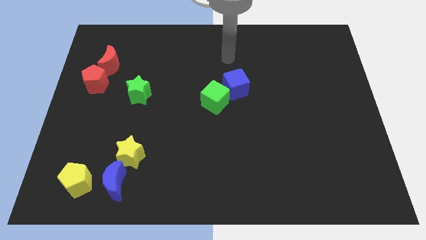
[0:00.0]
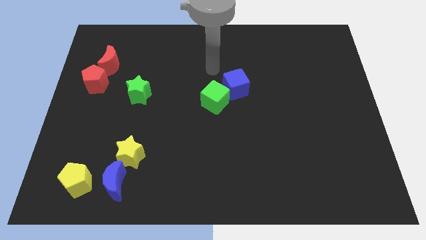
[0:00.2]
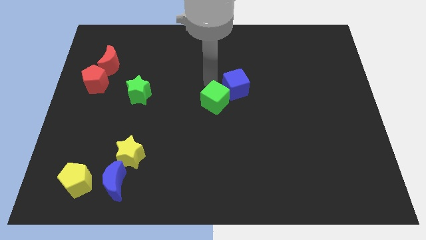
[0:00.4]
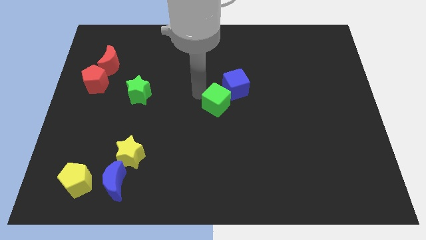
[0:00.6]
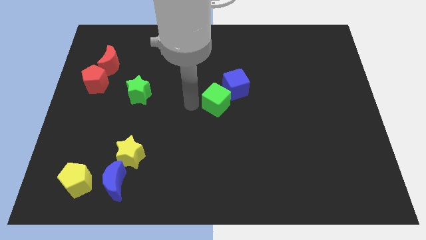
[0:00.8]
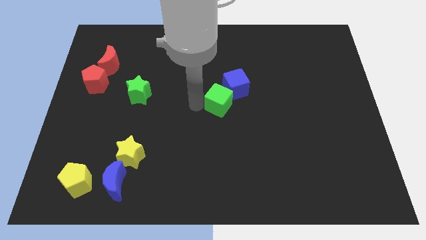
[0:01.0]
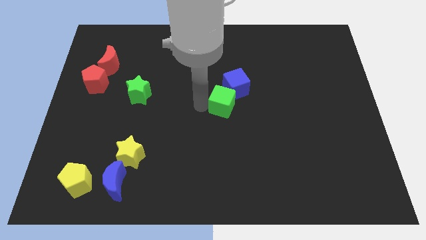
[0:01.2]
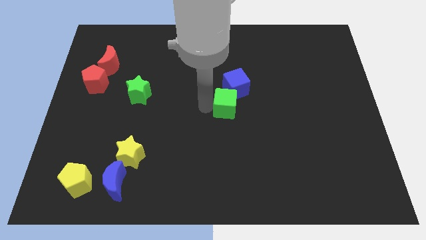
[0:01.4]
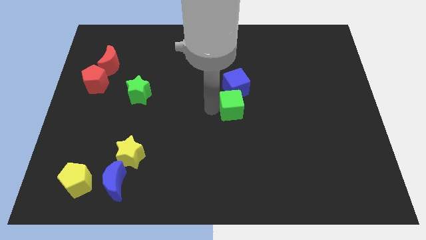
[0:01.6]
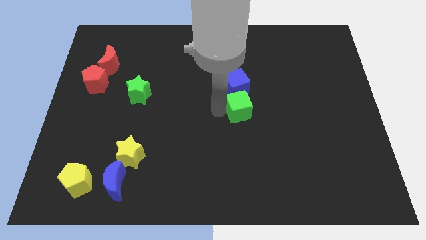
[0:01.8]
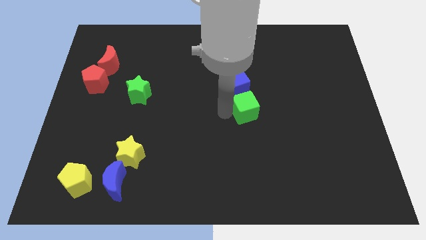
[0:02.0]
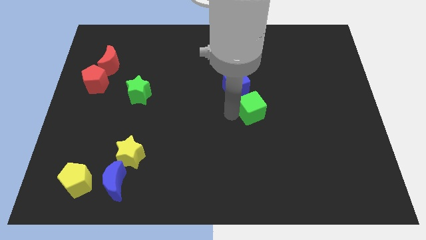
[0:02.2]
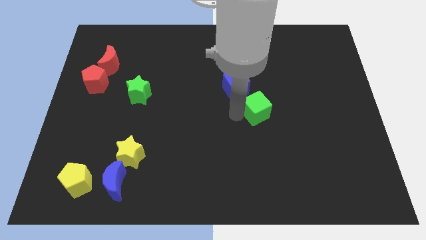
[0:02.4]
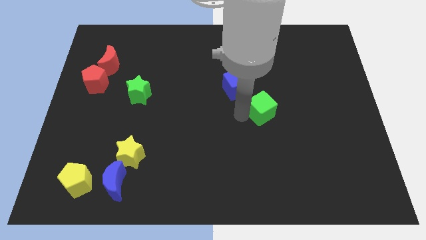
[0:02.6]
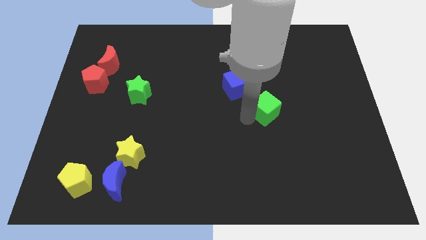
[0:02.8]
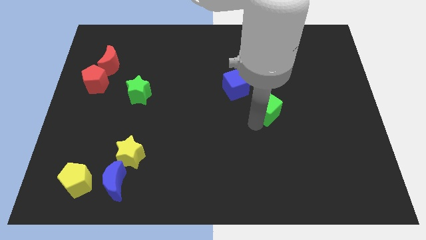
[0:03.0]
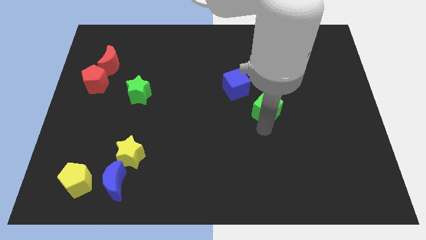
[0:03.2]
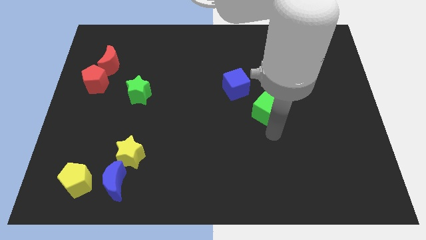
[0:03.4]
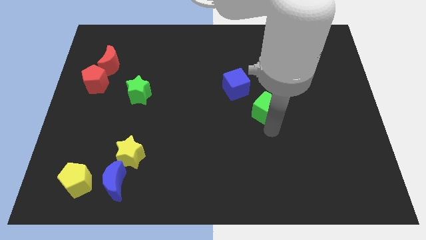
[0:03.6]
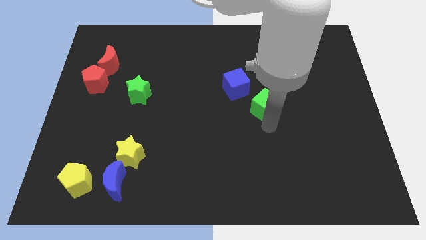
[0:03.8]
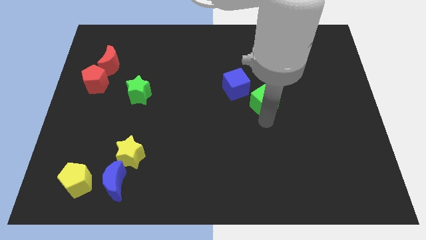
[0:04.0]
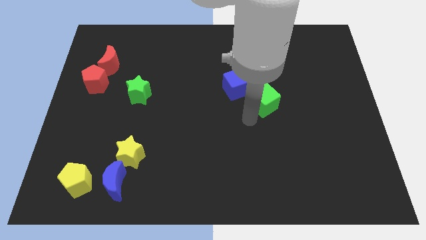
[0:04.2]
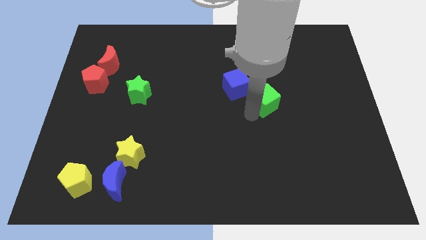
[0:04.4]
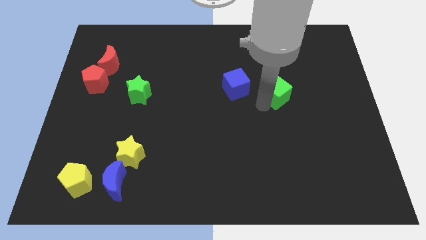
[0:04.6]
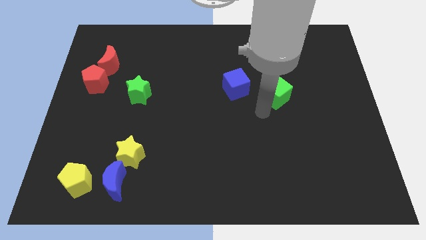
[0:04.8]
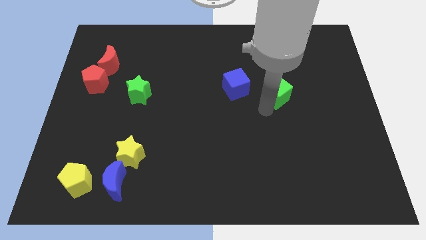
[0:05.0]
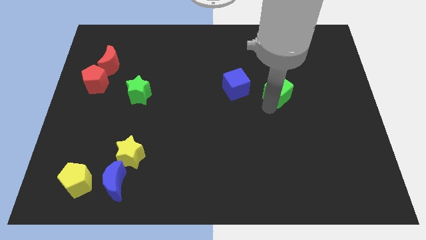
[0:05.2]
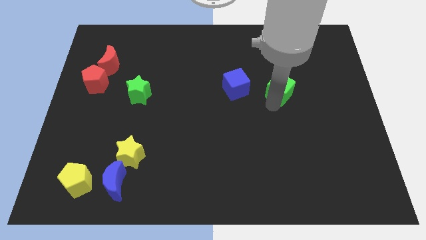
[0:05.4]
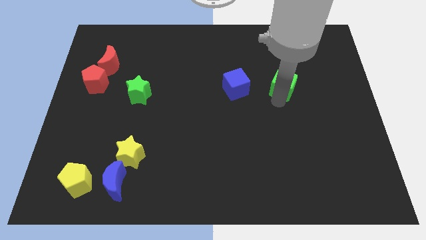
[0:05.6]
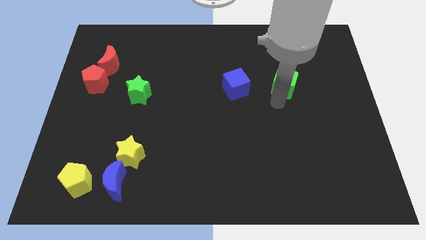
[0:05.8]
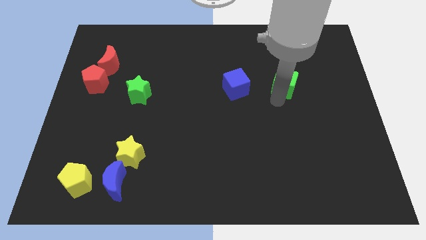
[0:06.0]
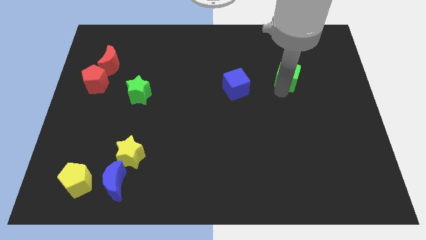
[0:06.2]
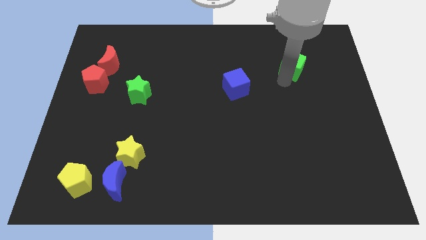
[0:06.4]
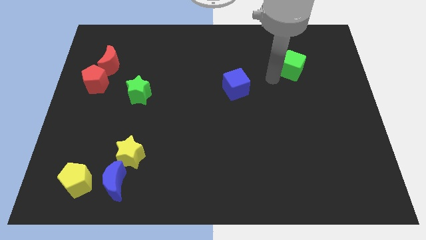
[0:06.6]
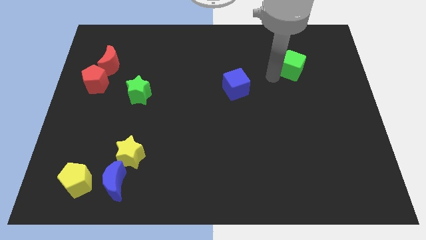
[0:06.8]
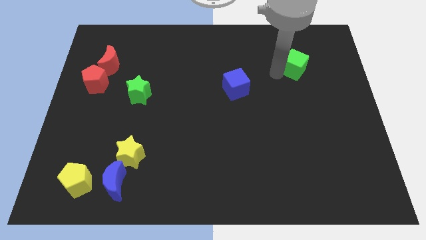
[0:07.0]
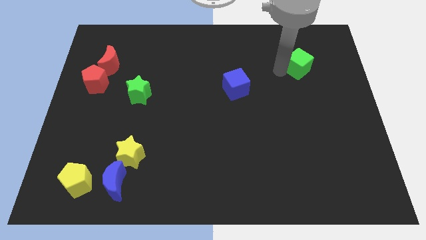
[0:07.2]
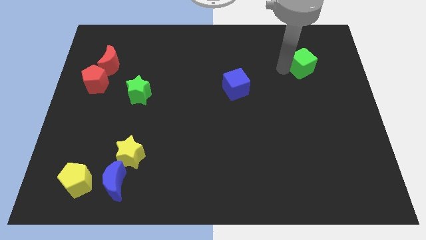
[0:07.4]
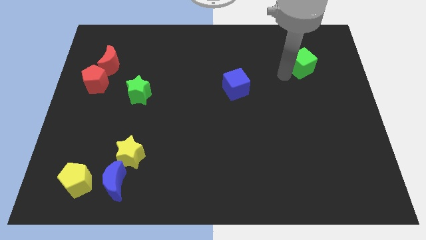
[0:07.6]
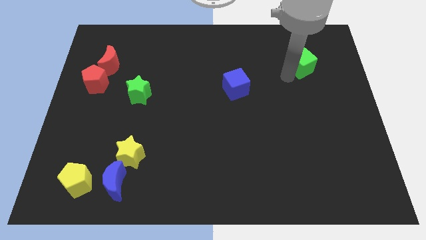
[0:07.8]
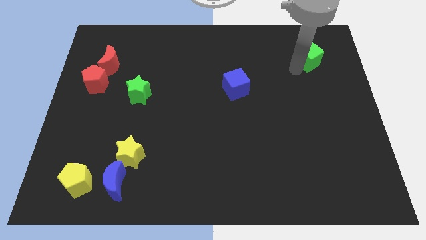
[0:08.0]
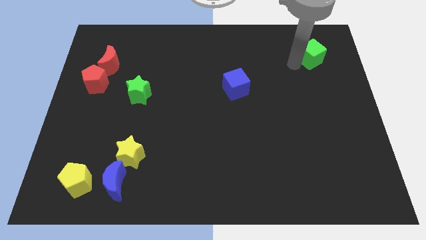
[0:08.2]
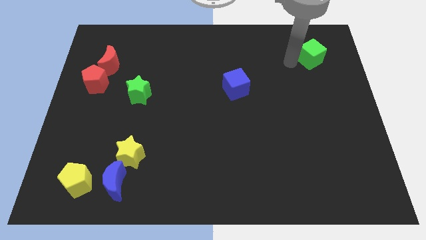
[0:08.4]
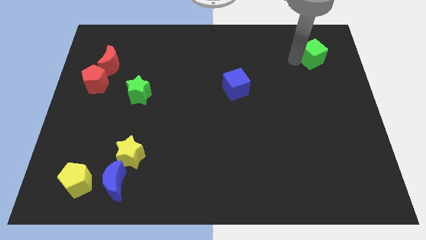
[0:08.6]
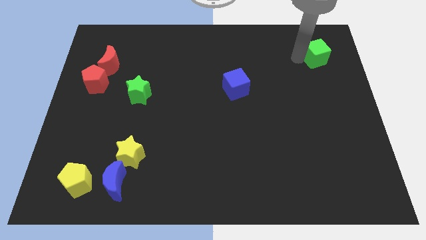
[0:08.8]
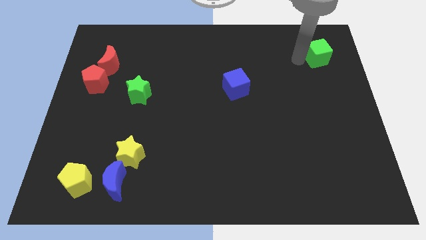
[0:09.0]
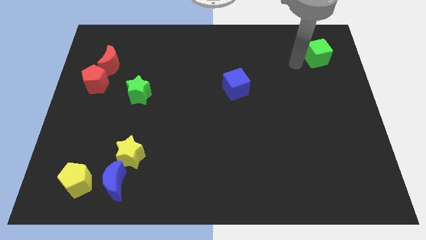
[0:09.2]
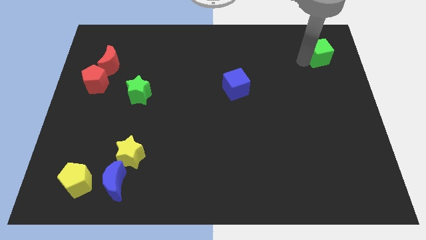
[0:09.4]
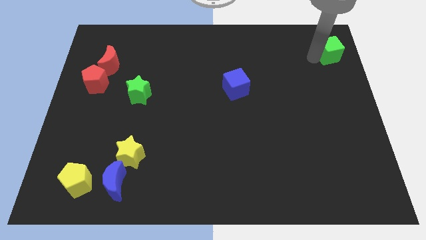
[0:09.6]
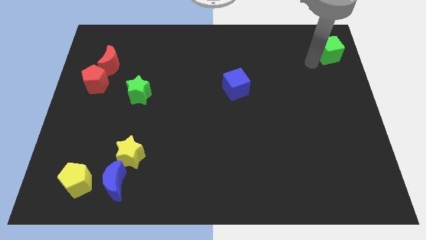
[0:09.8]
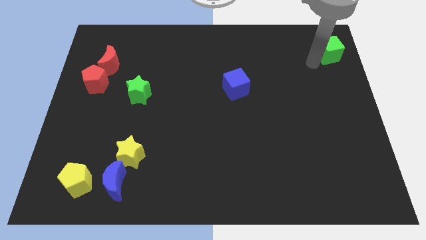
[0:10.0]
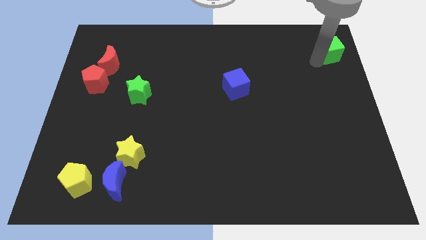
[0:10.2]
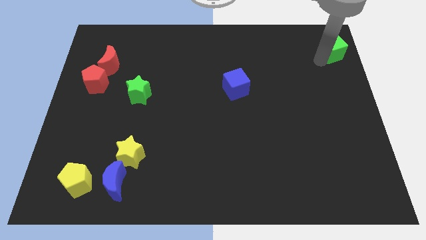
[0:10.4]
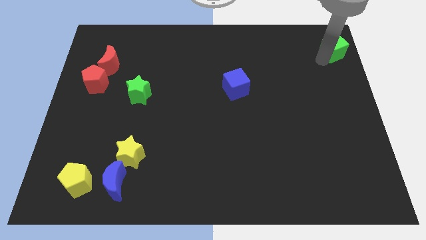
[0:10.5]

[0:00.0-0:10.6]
slide the green cube to the upper right corner
